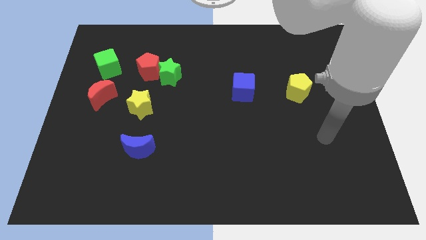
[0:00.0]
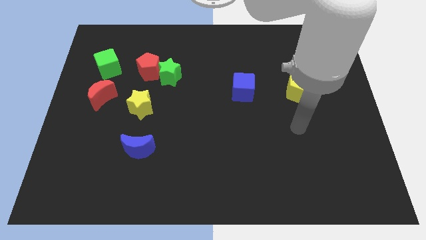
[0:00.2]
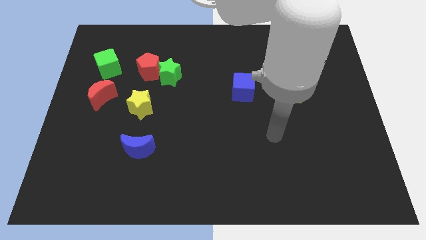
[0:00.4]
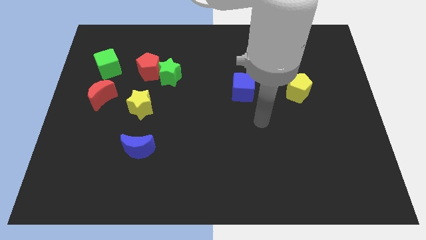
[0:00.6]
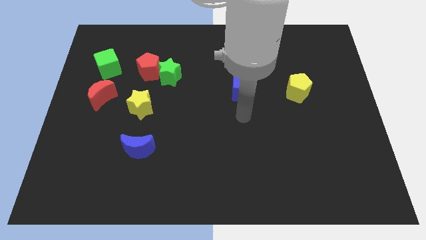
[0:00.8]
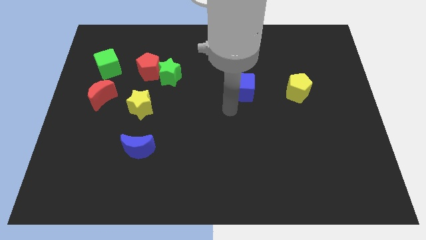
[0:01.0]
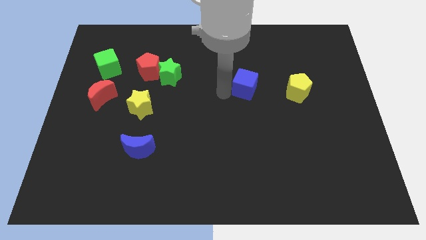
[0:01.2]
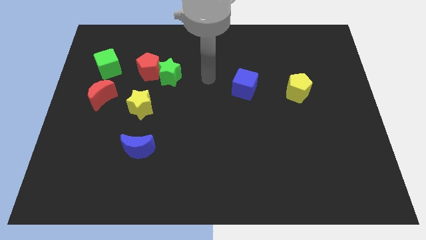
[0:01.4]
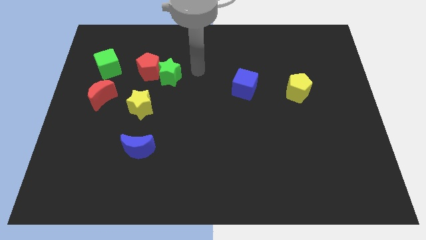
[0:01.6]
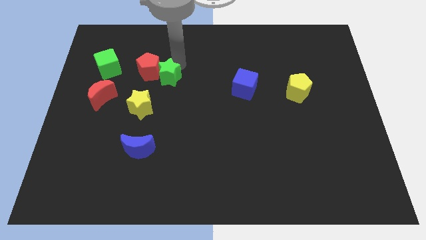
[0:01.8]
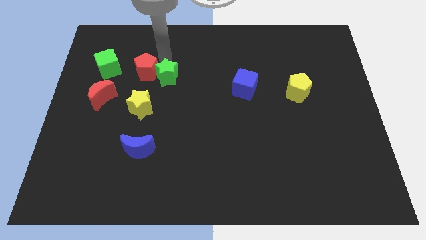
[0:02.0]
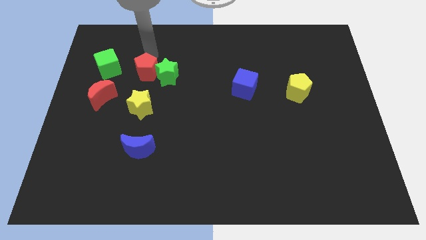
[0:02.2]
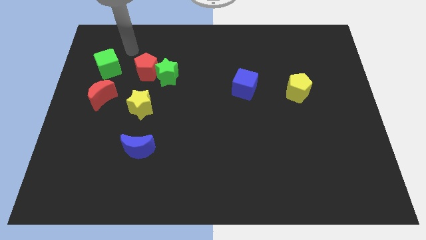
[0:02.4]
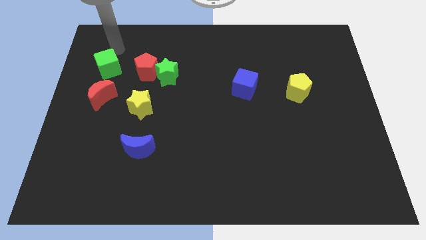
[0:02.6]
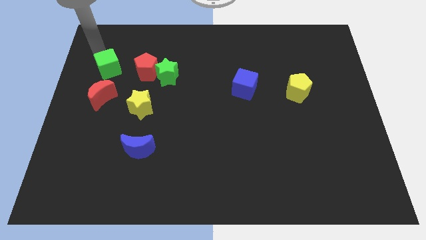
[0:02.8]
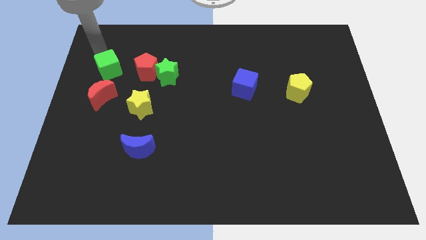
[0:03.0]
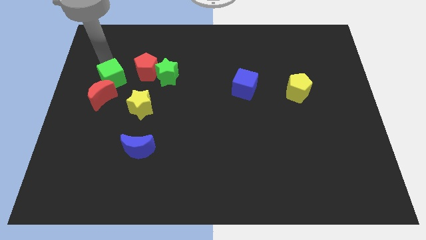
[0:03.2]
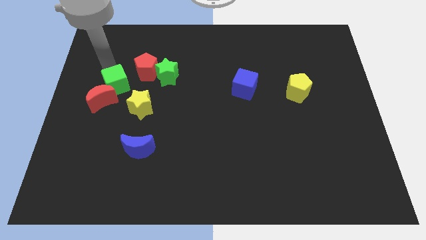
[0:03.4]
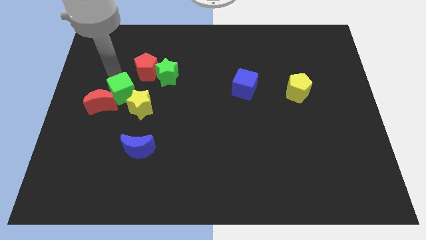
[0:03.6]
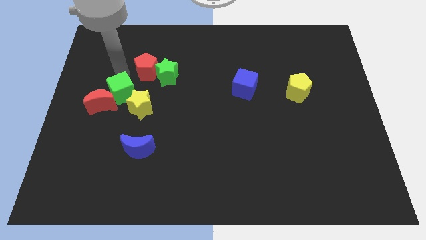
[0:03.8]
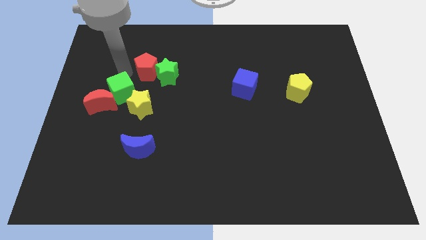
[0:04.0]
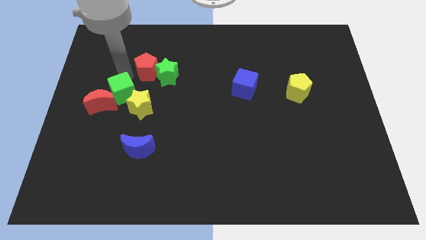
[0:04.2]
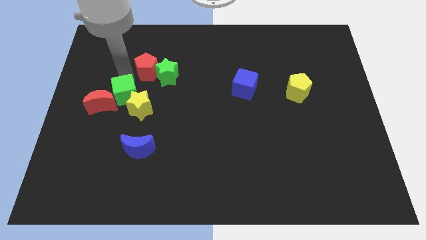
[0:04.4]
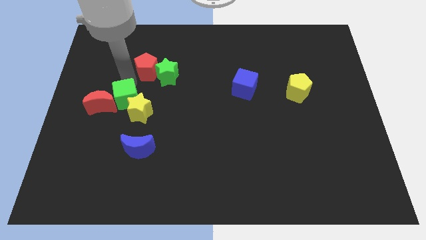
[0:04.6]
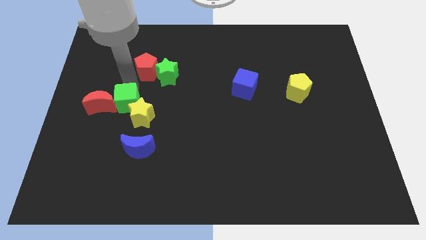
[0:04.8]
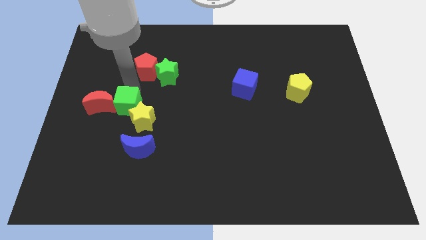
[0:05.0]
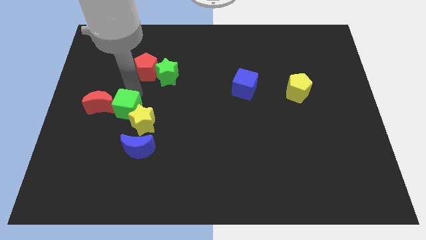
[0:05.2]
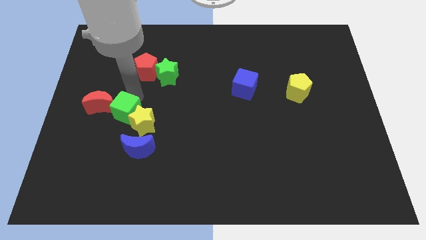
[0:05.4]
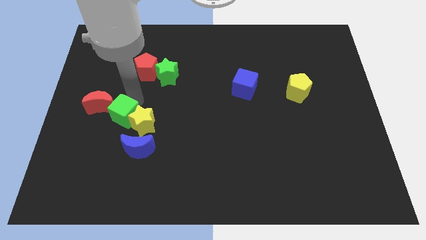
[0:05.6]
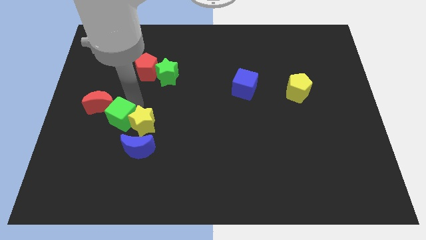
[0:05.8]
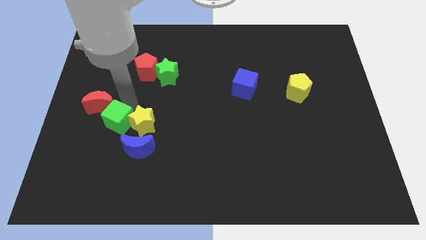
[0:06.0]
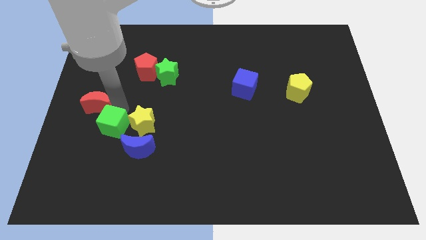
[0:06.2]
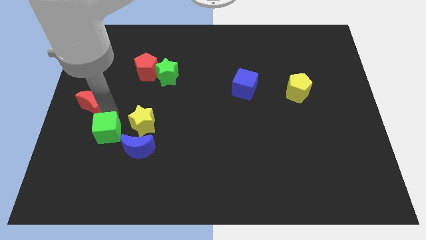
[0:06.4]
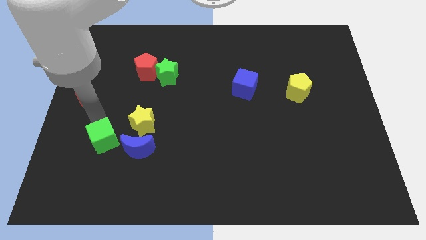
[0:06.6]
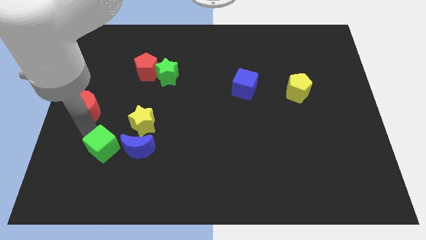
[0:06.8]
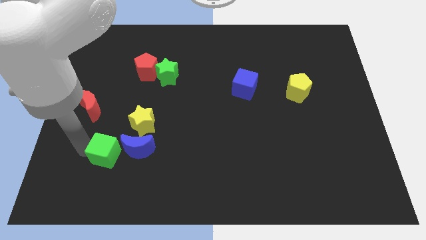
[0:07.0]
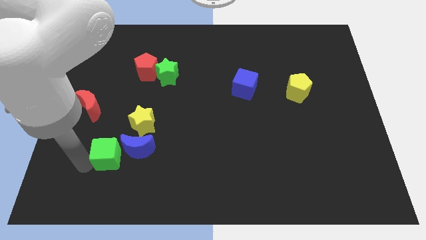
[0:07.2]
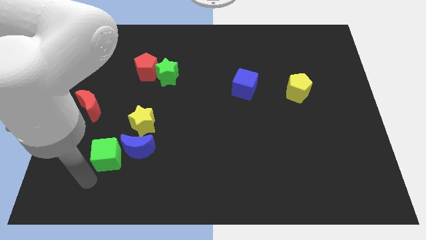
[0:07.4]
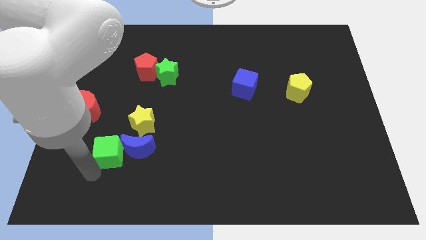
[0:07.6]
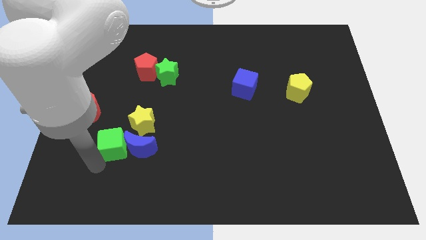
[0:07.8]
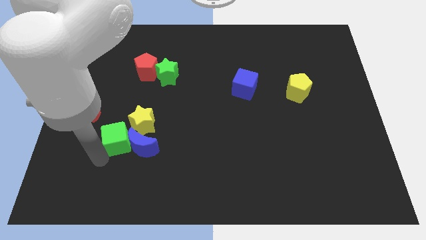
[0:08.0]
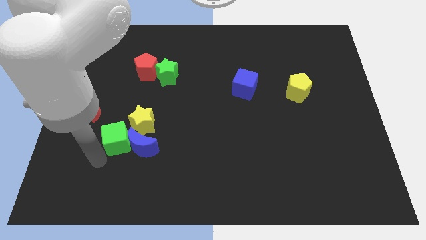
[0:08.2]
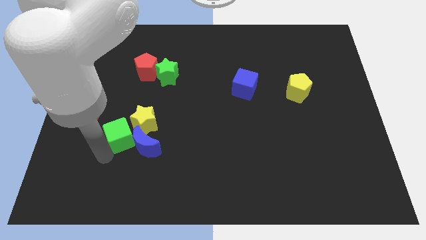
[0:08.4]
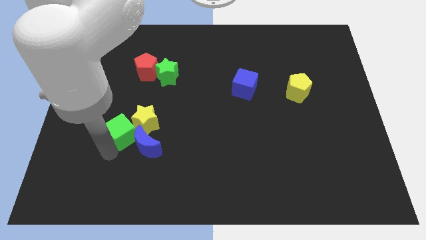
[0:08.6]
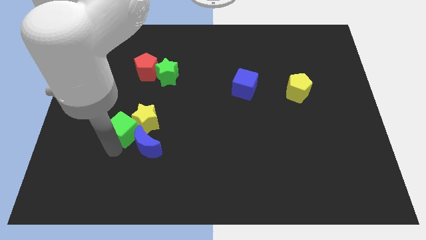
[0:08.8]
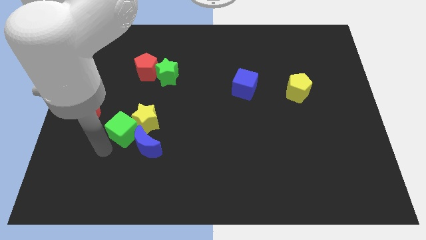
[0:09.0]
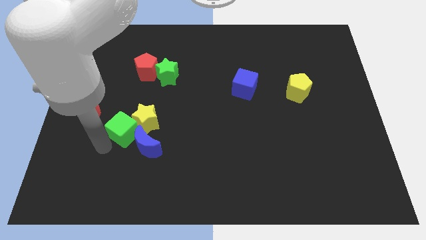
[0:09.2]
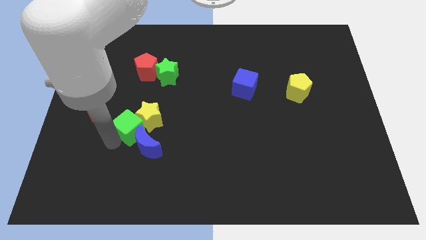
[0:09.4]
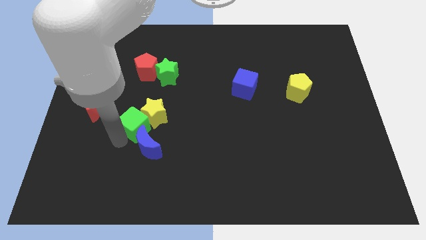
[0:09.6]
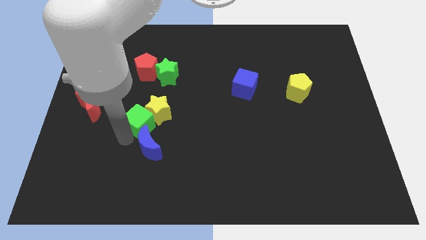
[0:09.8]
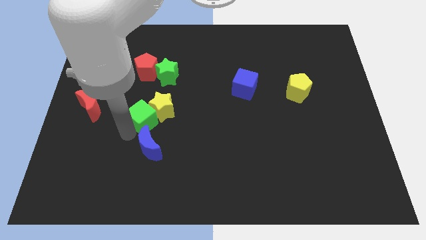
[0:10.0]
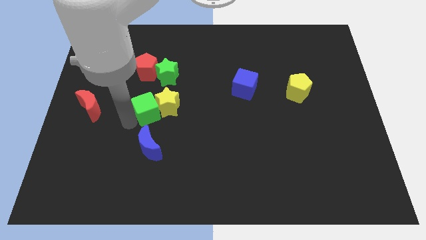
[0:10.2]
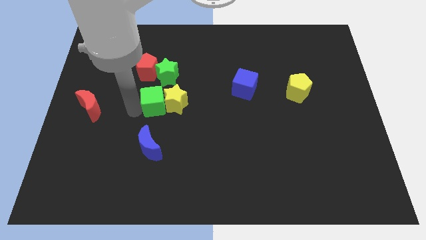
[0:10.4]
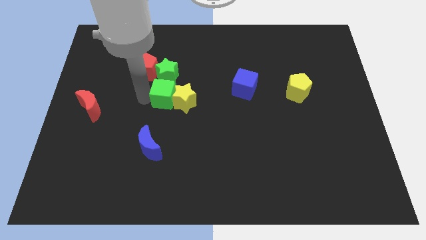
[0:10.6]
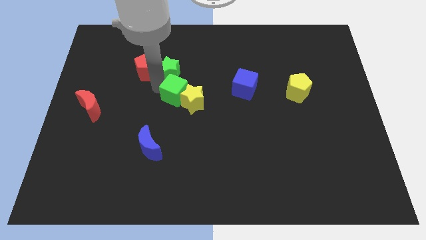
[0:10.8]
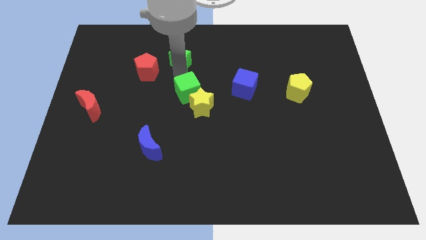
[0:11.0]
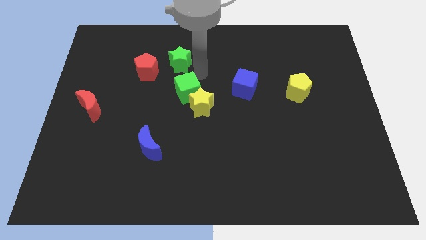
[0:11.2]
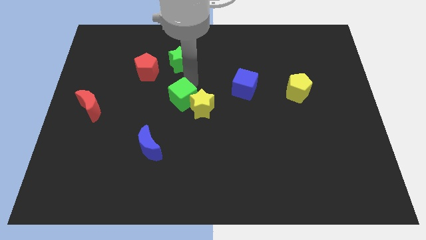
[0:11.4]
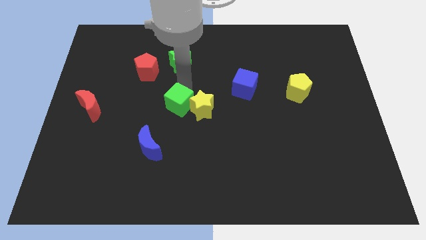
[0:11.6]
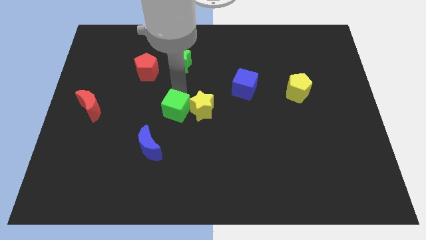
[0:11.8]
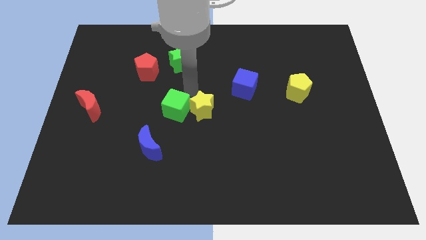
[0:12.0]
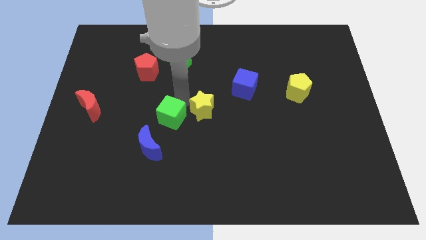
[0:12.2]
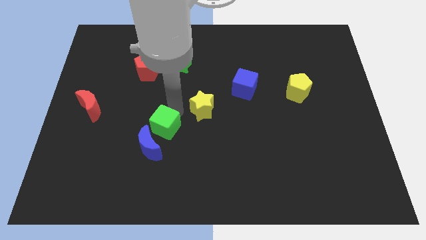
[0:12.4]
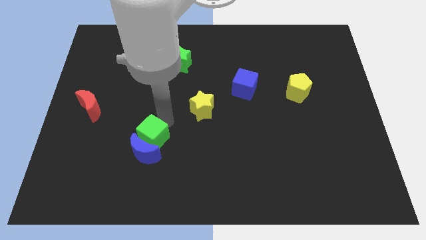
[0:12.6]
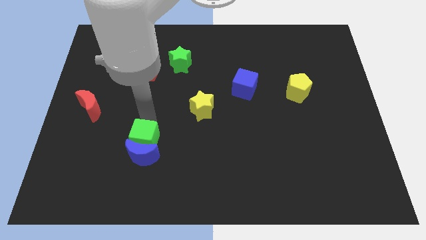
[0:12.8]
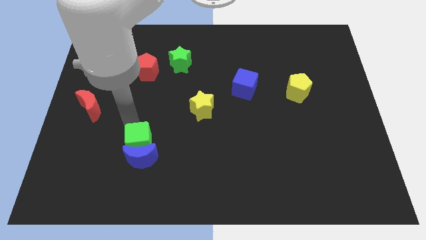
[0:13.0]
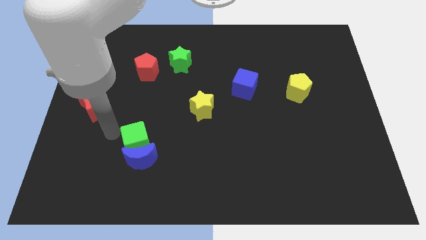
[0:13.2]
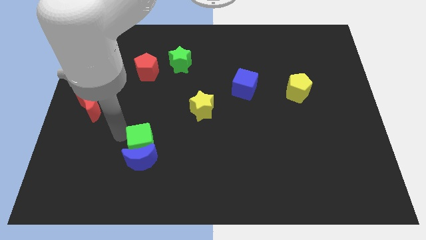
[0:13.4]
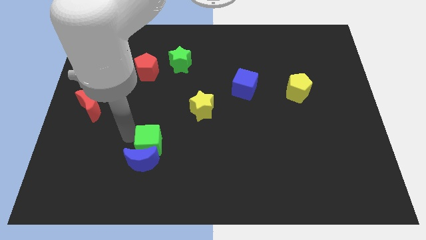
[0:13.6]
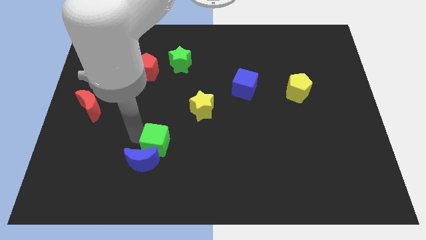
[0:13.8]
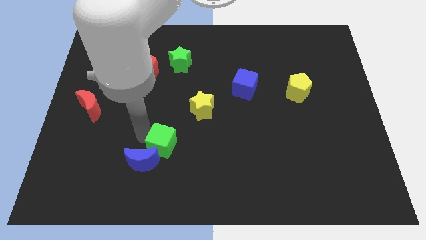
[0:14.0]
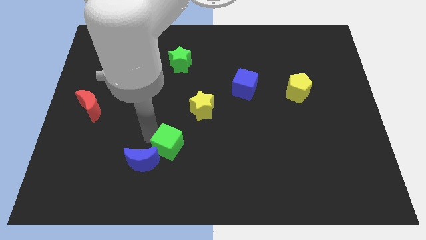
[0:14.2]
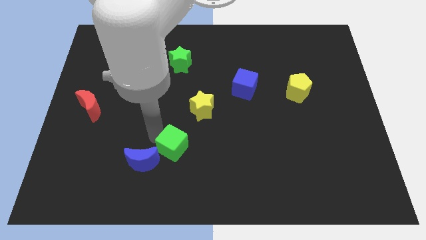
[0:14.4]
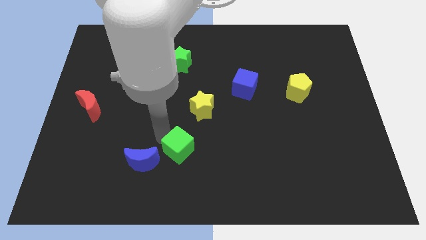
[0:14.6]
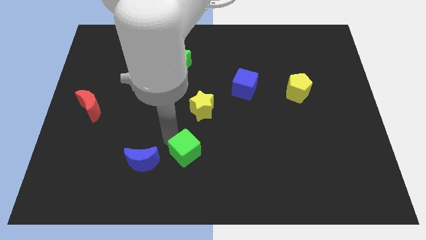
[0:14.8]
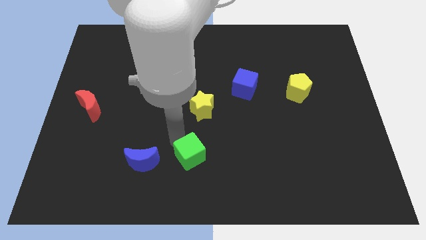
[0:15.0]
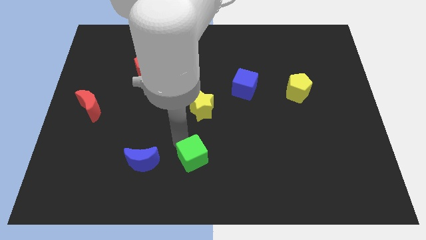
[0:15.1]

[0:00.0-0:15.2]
move the green cube to the bottom
